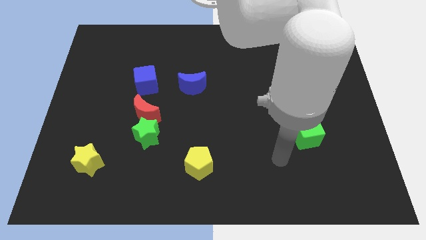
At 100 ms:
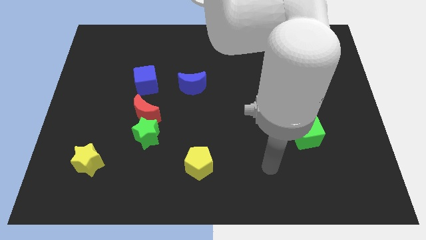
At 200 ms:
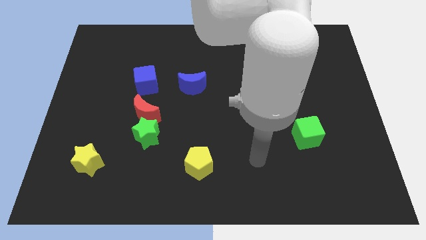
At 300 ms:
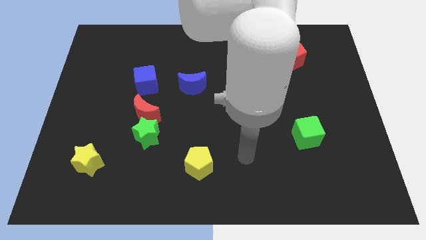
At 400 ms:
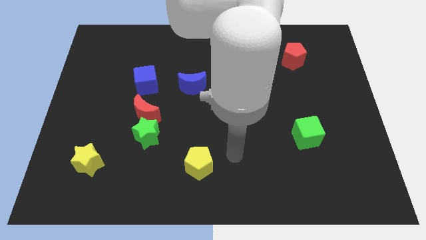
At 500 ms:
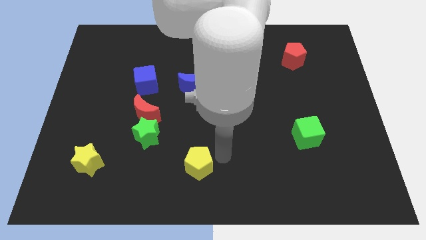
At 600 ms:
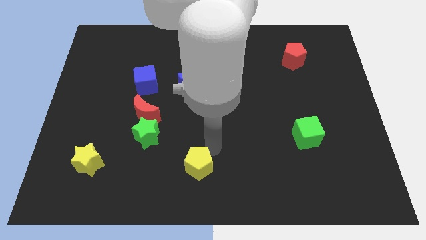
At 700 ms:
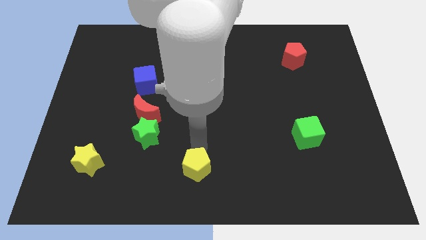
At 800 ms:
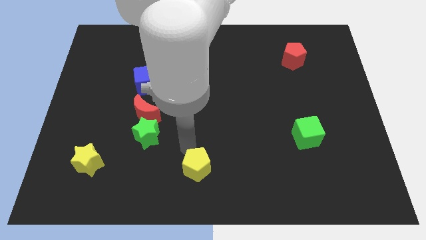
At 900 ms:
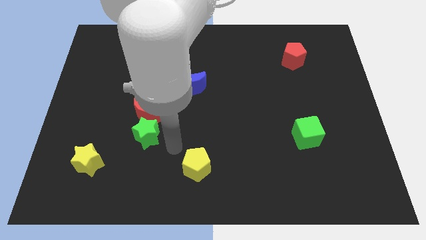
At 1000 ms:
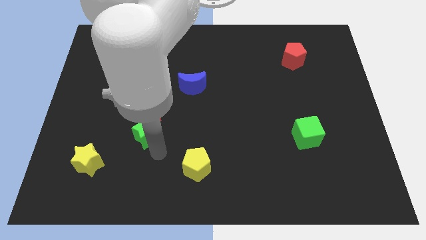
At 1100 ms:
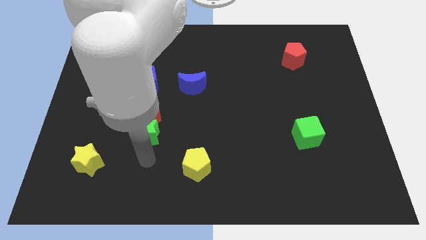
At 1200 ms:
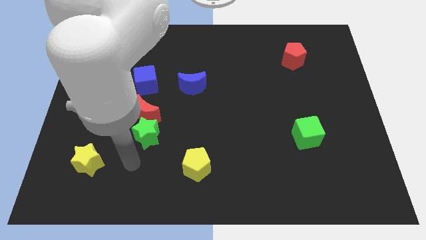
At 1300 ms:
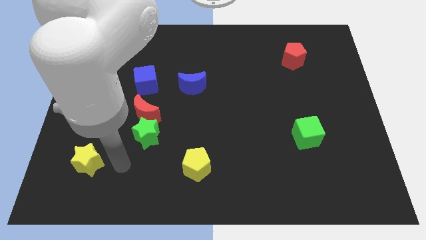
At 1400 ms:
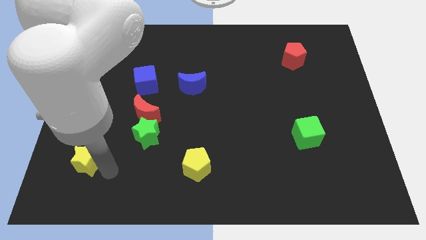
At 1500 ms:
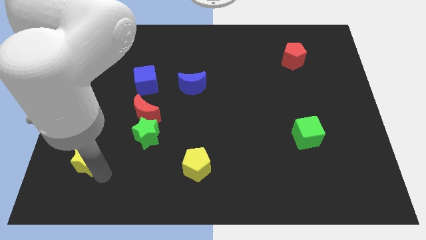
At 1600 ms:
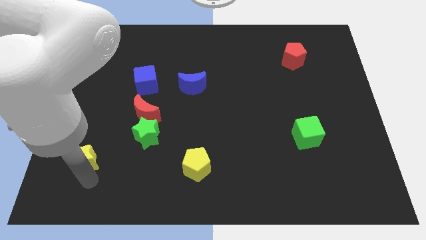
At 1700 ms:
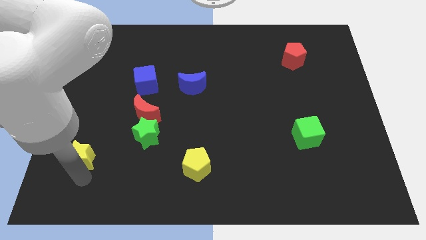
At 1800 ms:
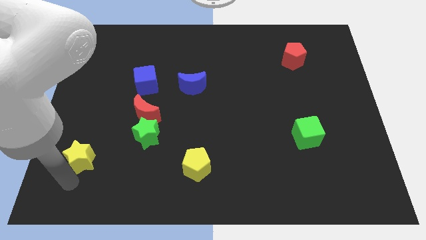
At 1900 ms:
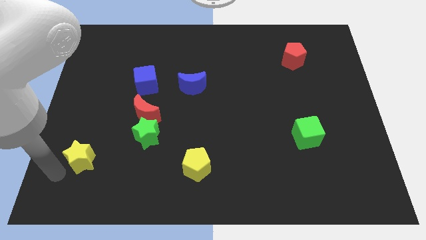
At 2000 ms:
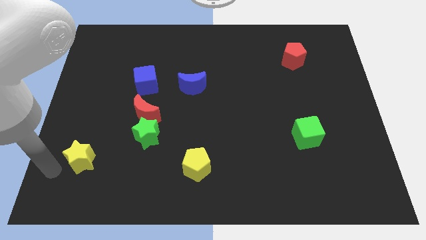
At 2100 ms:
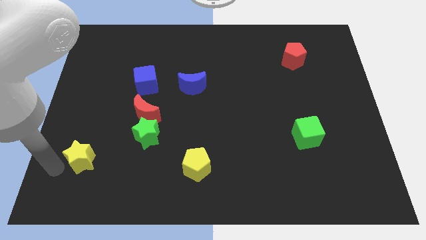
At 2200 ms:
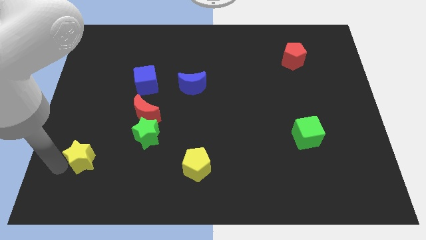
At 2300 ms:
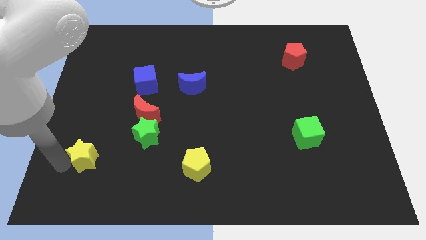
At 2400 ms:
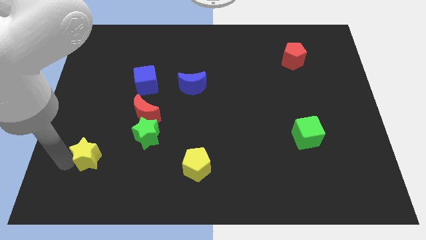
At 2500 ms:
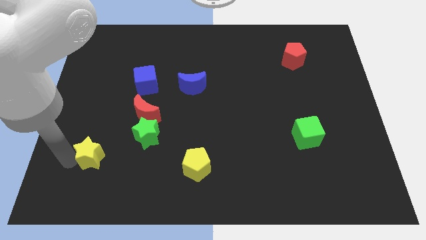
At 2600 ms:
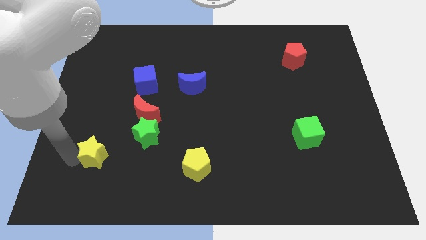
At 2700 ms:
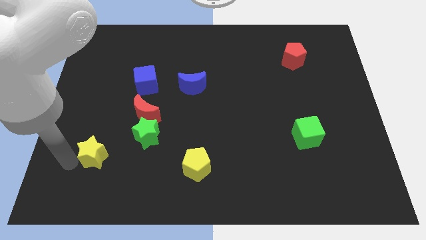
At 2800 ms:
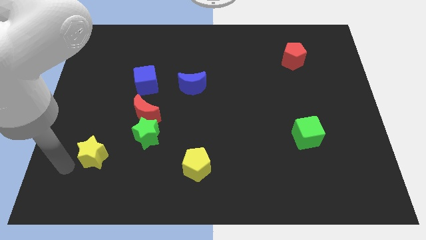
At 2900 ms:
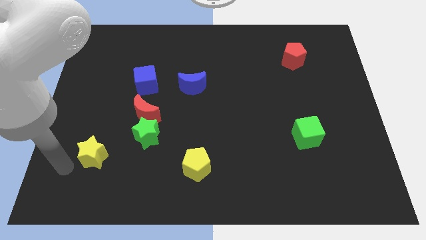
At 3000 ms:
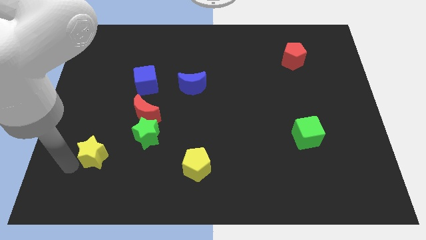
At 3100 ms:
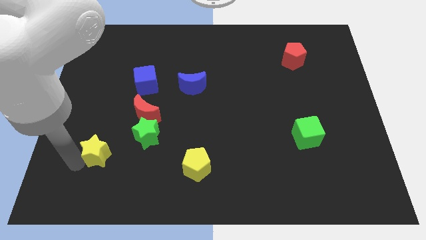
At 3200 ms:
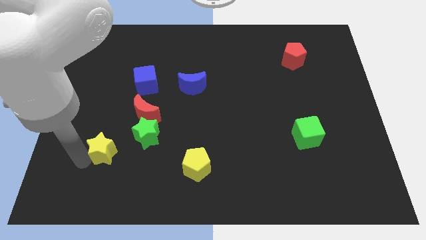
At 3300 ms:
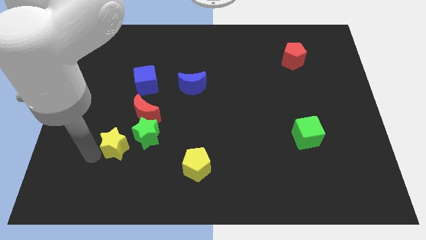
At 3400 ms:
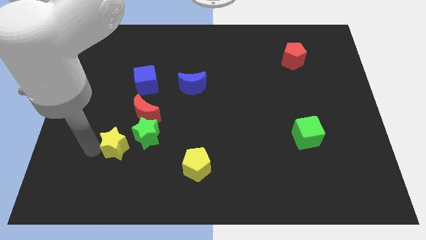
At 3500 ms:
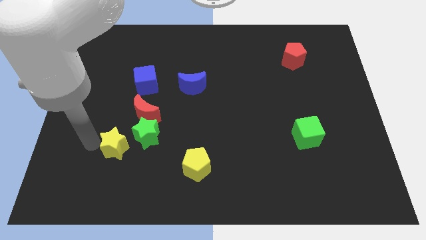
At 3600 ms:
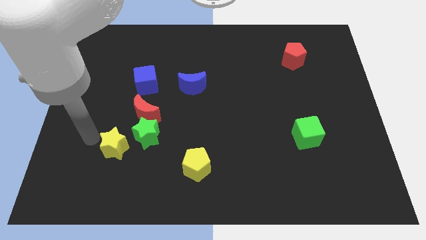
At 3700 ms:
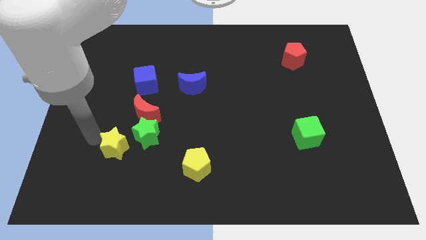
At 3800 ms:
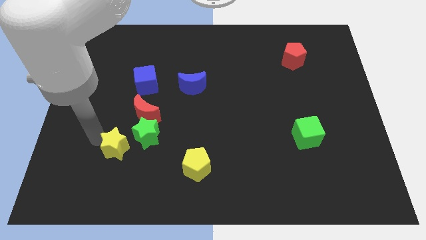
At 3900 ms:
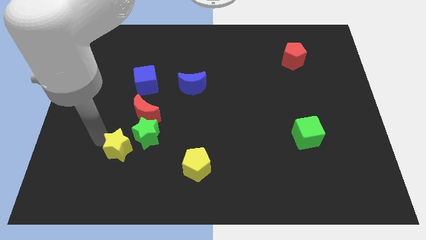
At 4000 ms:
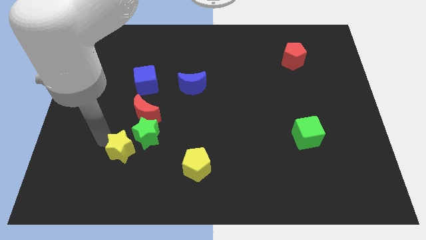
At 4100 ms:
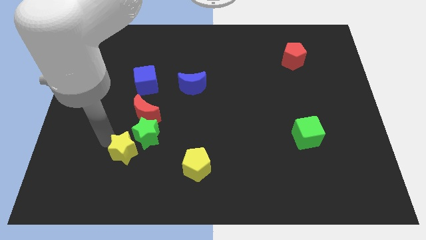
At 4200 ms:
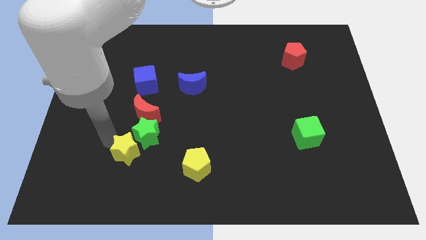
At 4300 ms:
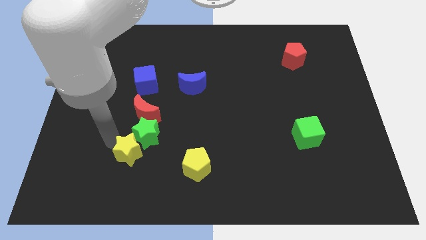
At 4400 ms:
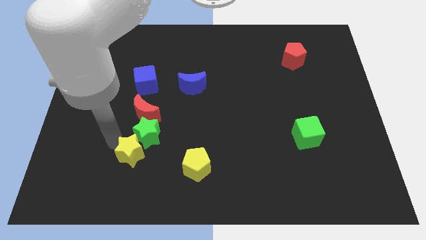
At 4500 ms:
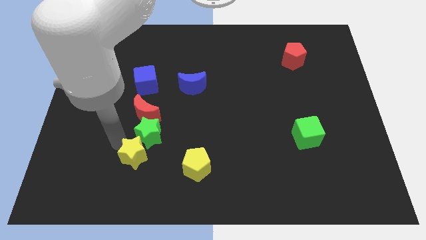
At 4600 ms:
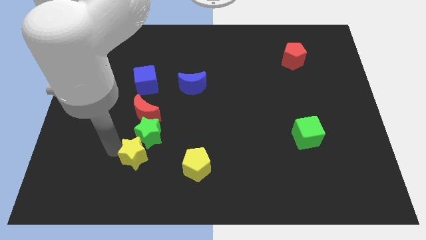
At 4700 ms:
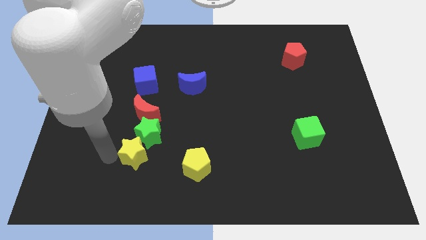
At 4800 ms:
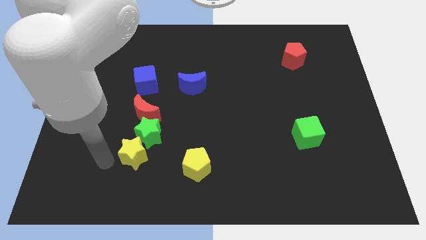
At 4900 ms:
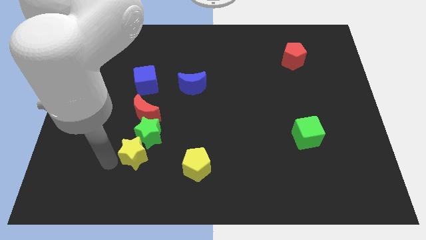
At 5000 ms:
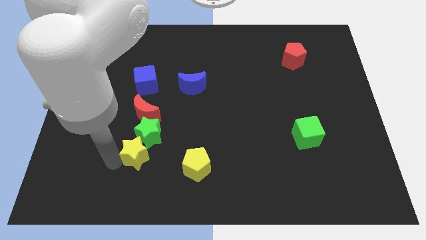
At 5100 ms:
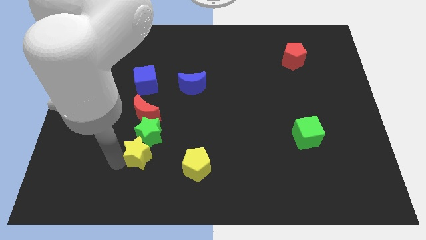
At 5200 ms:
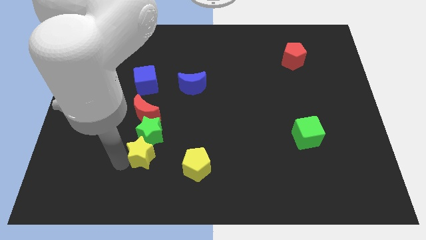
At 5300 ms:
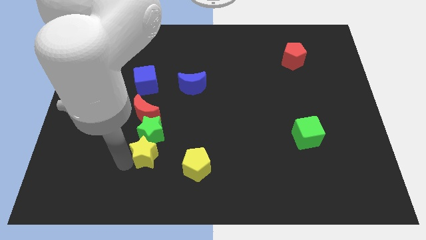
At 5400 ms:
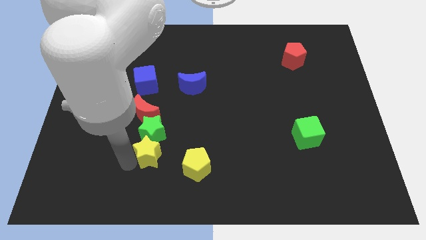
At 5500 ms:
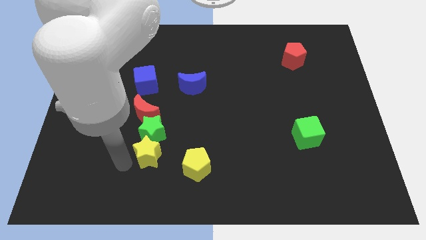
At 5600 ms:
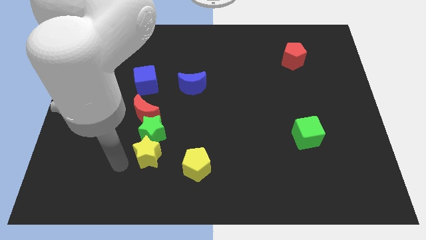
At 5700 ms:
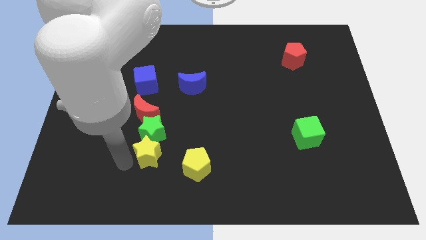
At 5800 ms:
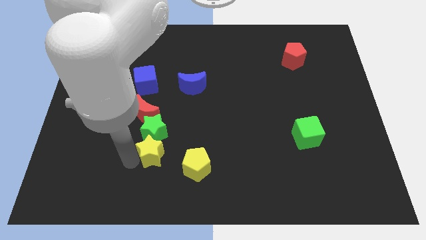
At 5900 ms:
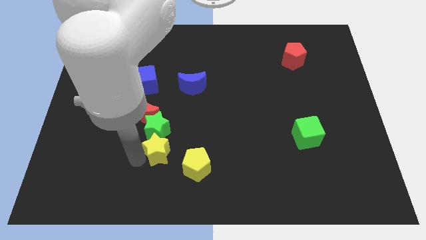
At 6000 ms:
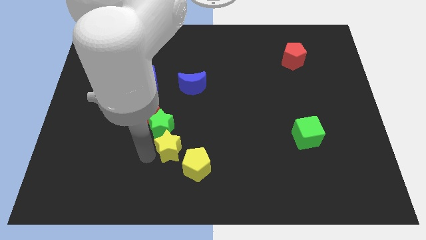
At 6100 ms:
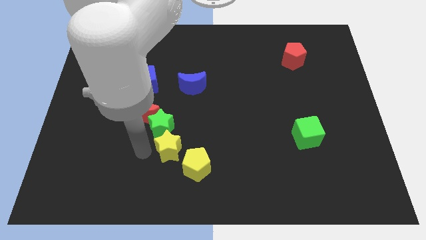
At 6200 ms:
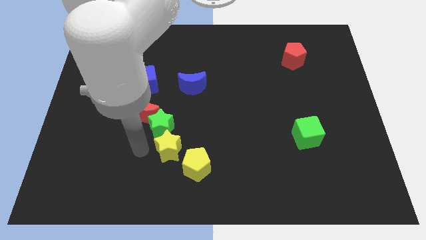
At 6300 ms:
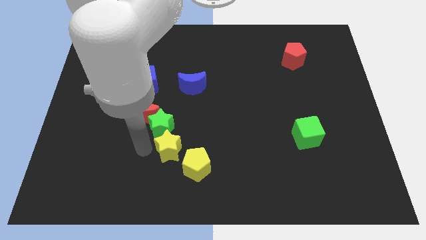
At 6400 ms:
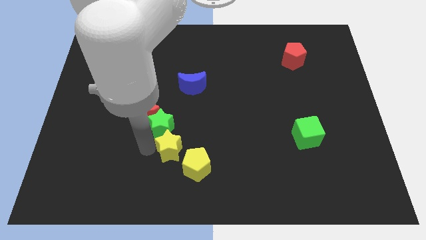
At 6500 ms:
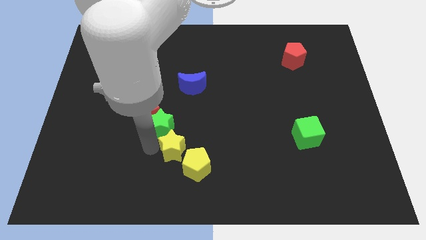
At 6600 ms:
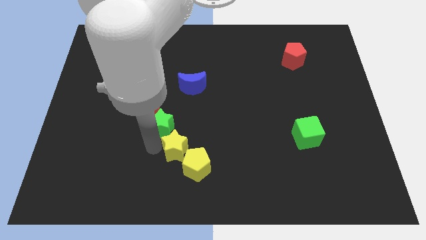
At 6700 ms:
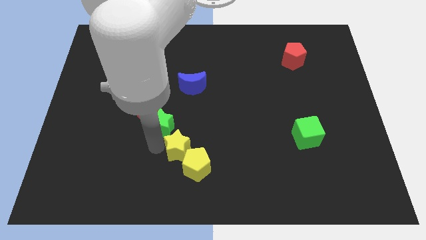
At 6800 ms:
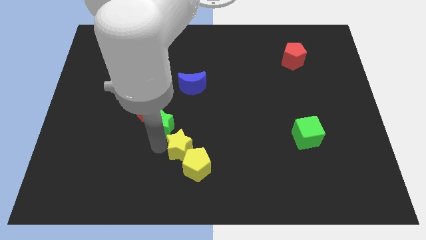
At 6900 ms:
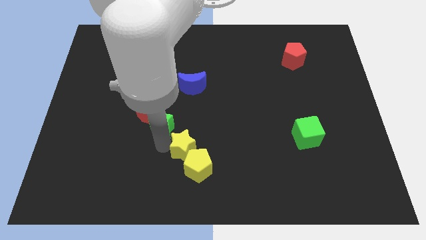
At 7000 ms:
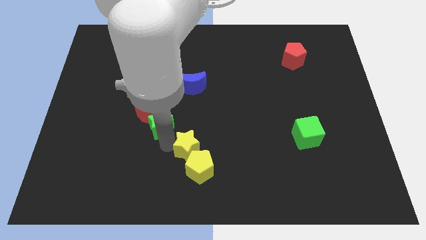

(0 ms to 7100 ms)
move the yellow star right

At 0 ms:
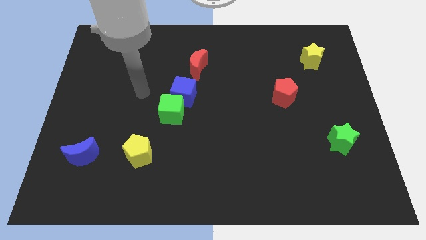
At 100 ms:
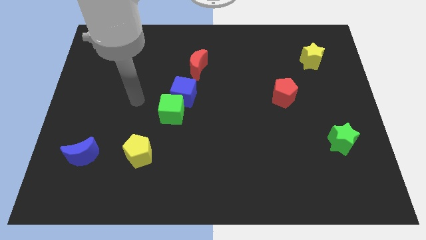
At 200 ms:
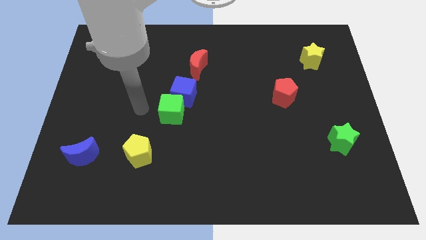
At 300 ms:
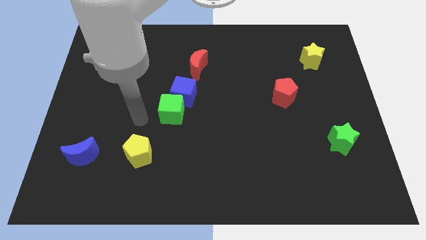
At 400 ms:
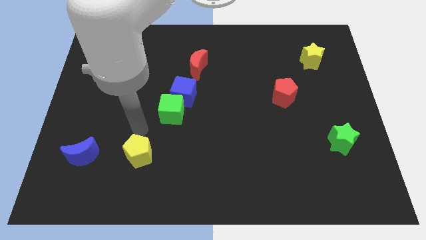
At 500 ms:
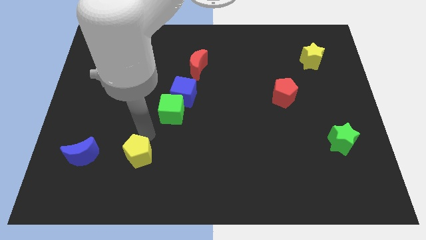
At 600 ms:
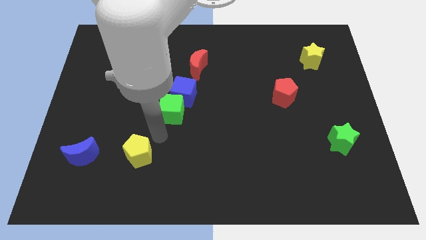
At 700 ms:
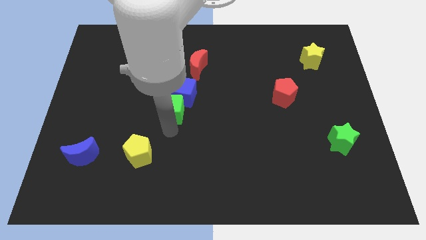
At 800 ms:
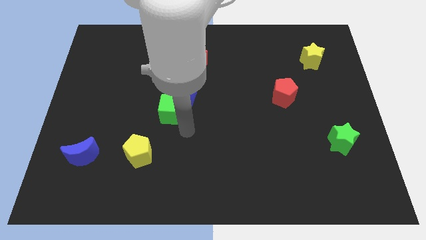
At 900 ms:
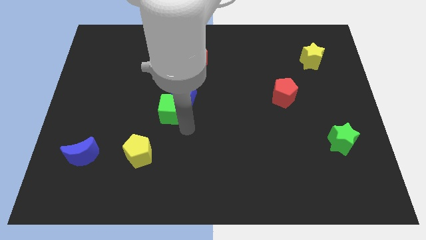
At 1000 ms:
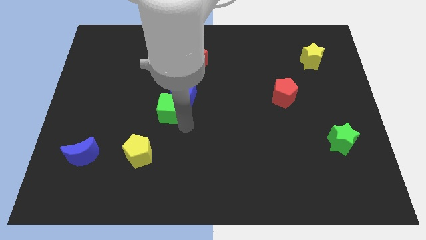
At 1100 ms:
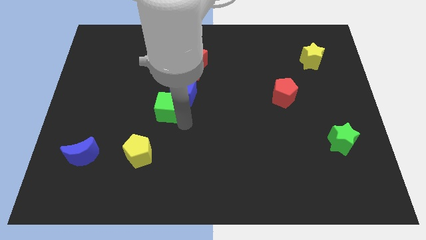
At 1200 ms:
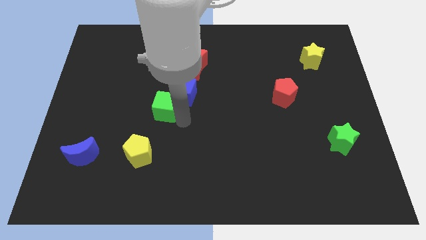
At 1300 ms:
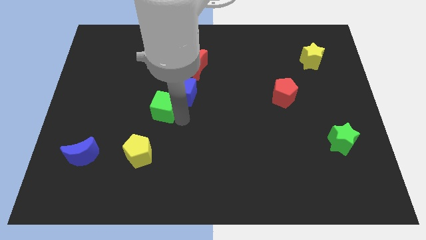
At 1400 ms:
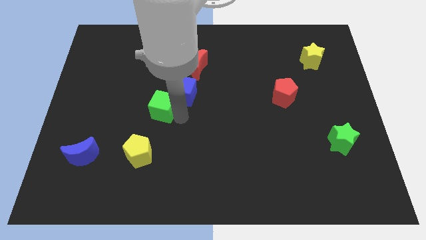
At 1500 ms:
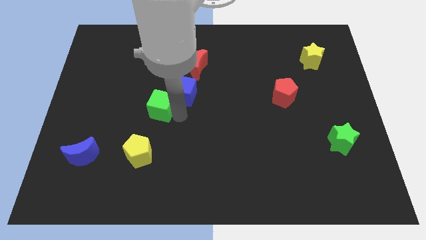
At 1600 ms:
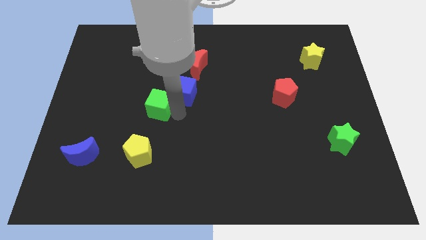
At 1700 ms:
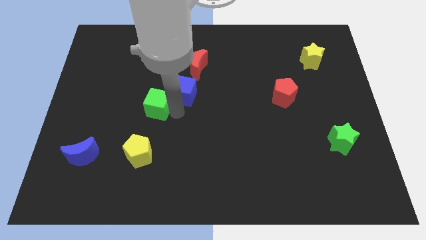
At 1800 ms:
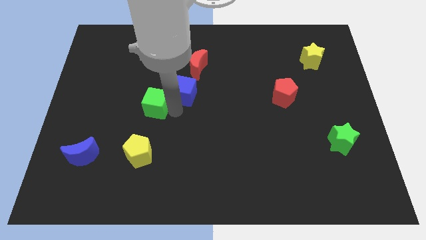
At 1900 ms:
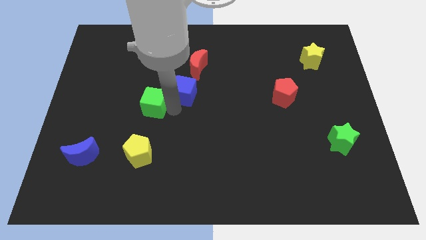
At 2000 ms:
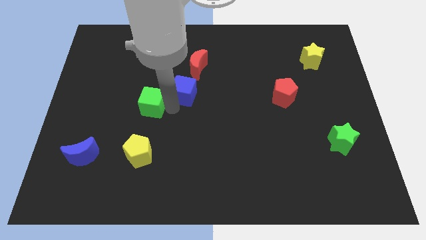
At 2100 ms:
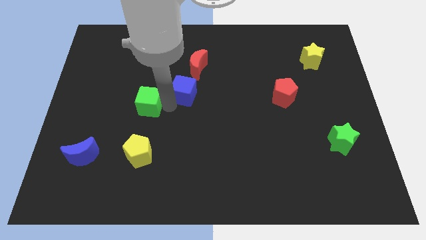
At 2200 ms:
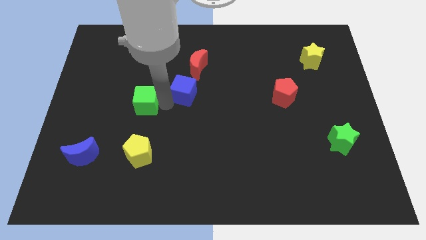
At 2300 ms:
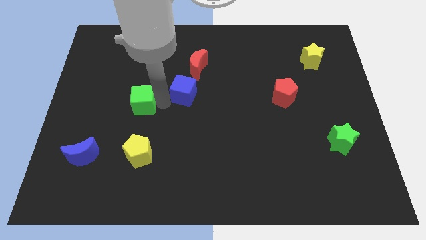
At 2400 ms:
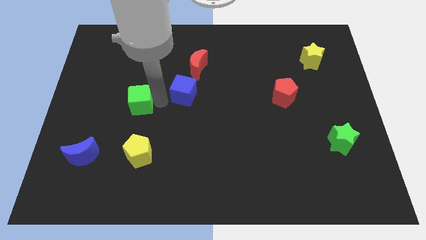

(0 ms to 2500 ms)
slightly move the green cube diagonally up and left
